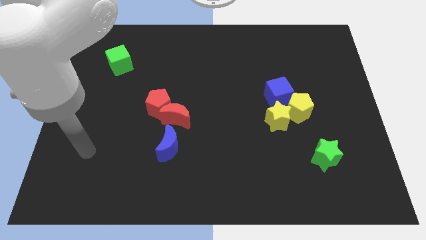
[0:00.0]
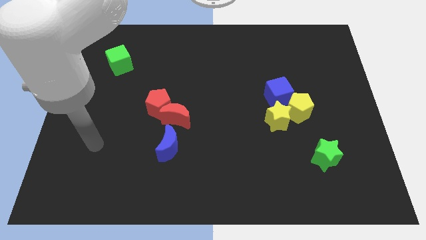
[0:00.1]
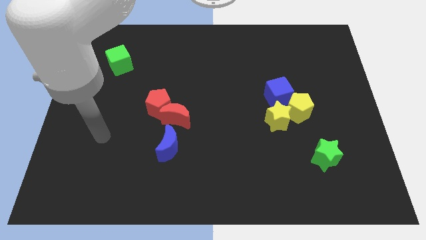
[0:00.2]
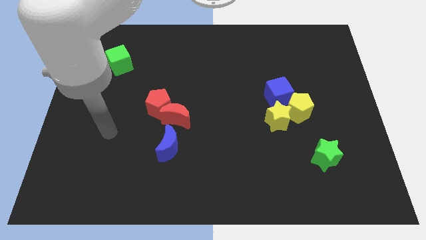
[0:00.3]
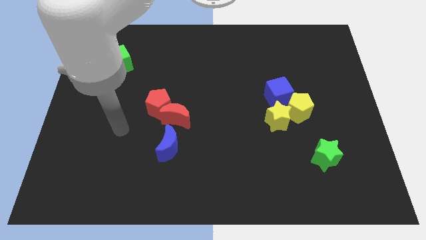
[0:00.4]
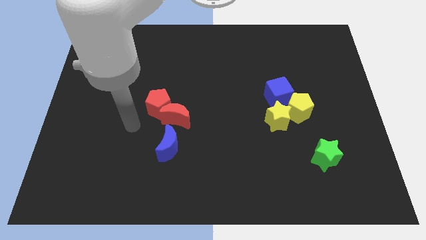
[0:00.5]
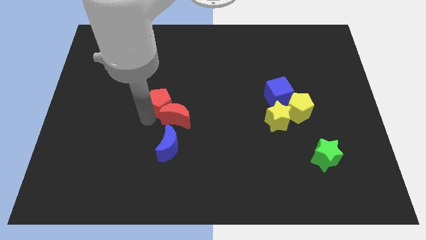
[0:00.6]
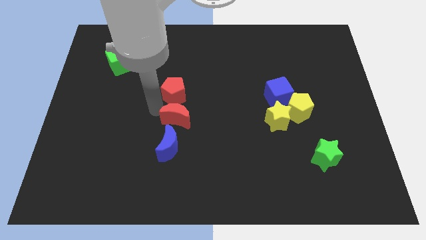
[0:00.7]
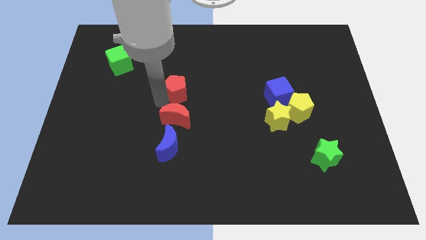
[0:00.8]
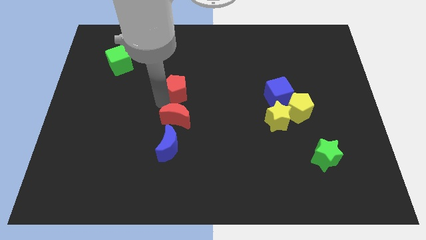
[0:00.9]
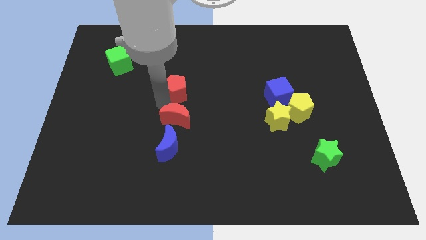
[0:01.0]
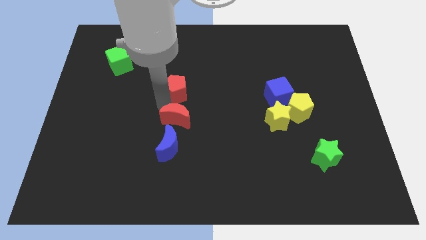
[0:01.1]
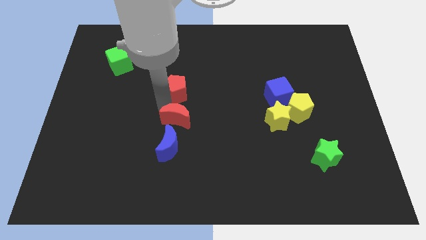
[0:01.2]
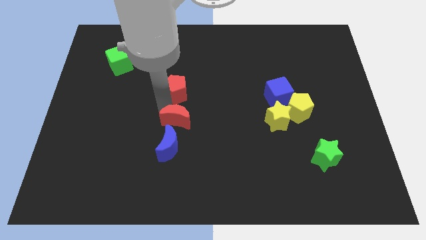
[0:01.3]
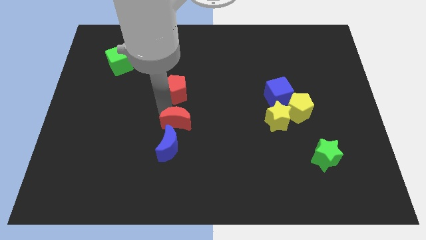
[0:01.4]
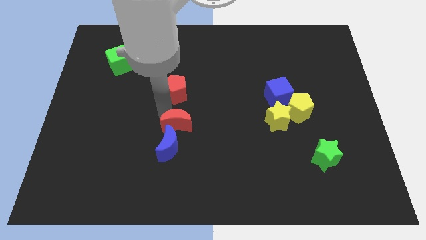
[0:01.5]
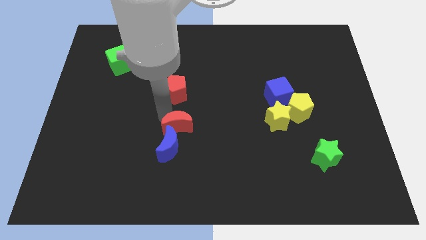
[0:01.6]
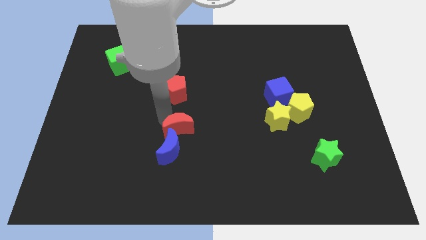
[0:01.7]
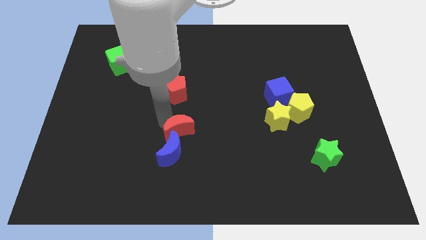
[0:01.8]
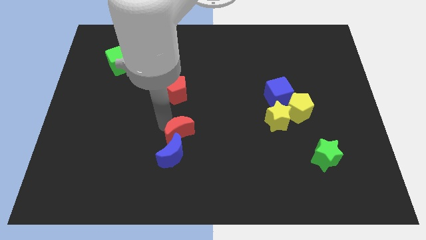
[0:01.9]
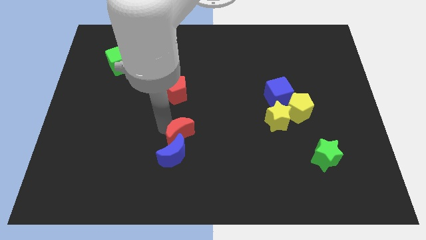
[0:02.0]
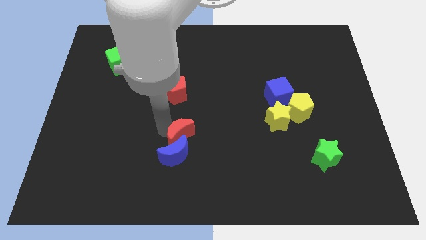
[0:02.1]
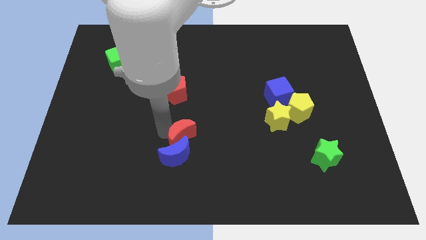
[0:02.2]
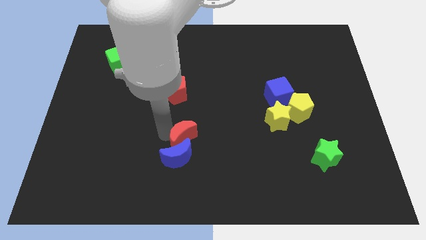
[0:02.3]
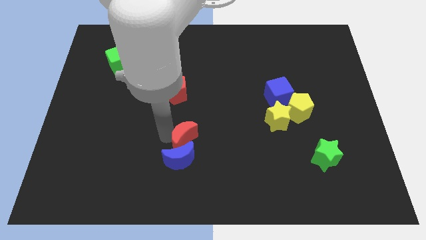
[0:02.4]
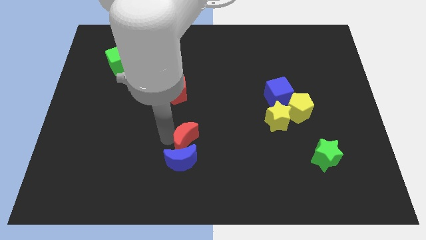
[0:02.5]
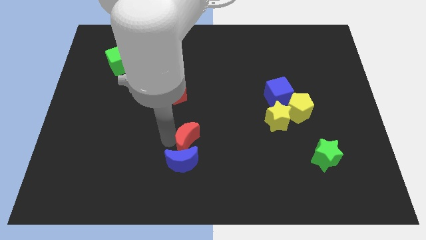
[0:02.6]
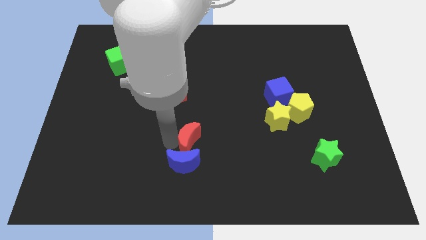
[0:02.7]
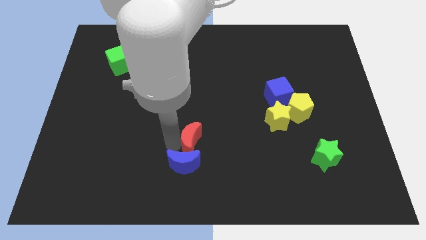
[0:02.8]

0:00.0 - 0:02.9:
push the red moon down and to the right diagonally a bit

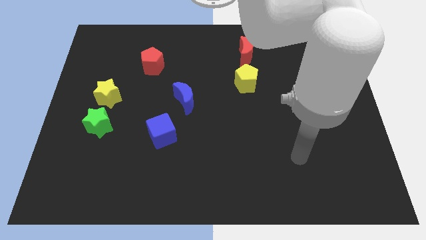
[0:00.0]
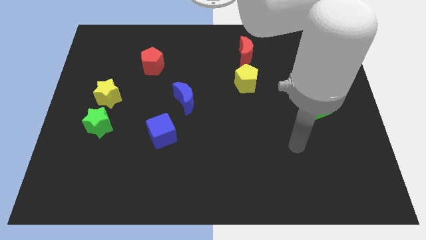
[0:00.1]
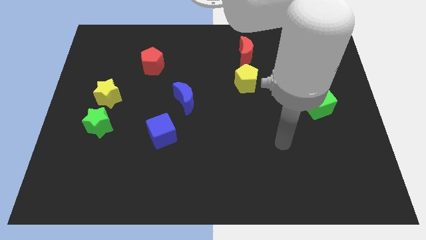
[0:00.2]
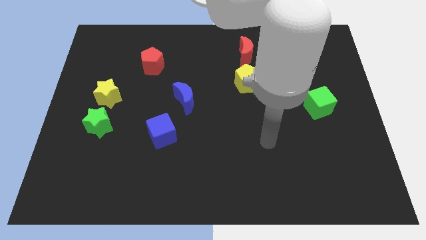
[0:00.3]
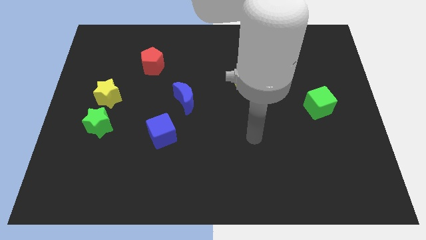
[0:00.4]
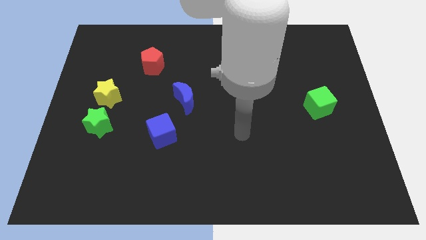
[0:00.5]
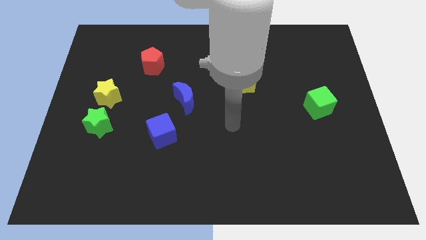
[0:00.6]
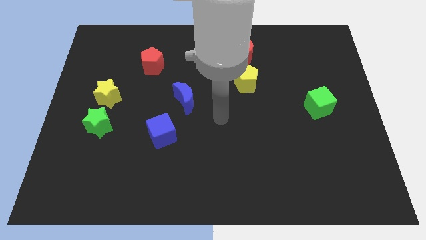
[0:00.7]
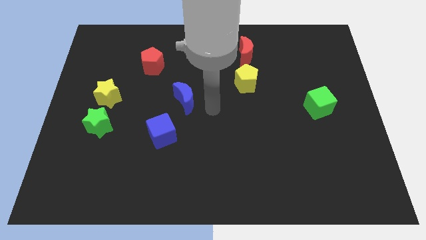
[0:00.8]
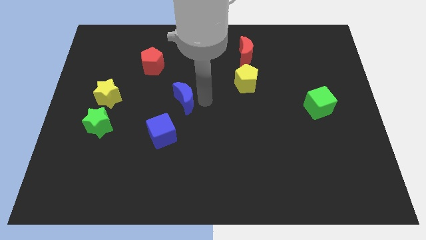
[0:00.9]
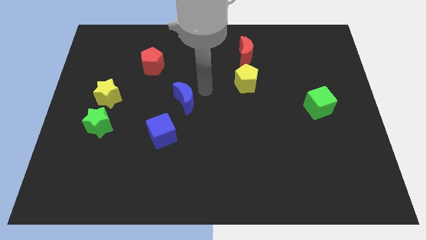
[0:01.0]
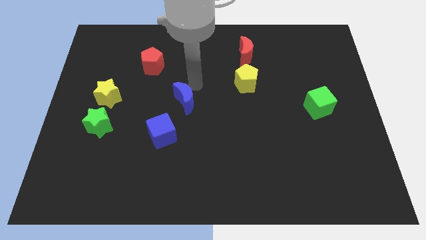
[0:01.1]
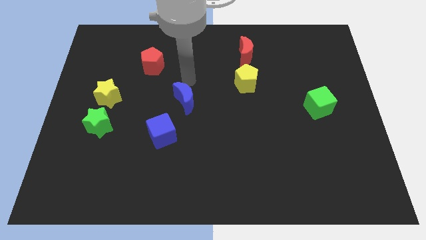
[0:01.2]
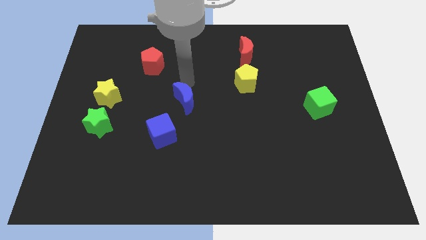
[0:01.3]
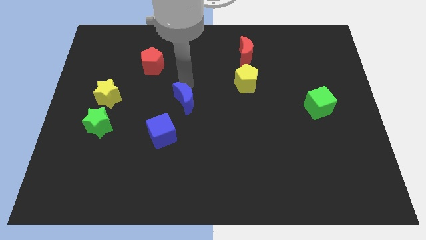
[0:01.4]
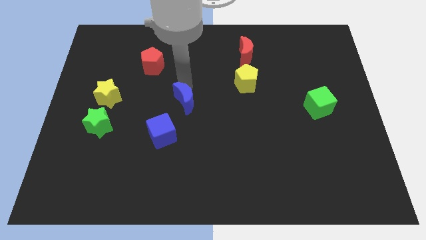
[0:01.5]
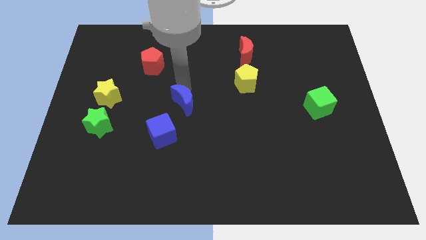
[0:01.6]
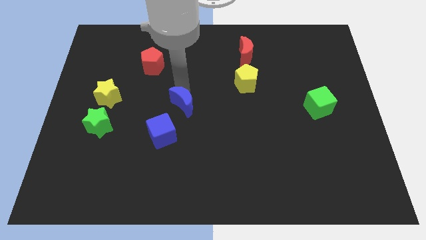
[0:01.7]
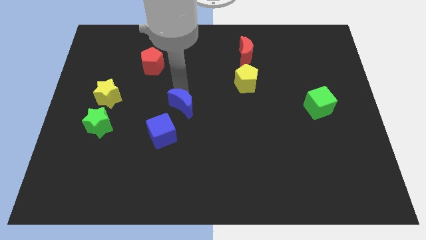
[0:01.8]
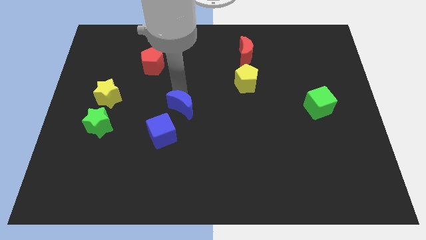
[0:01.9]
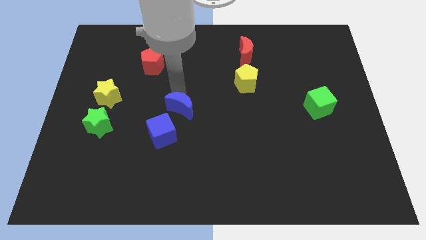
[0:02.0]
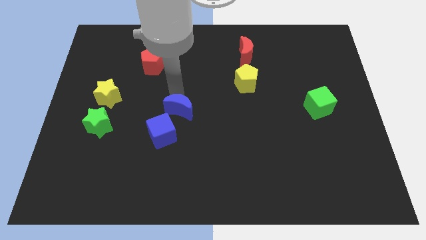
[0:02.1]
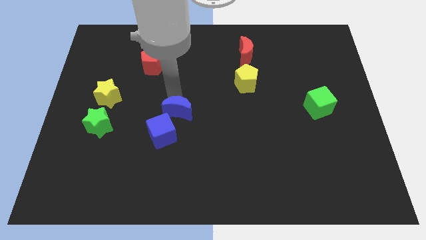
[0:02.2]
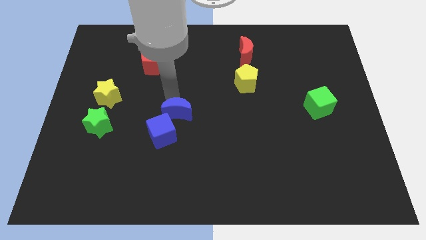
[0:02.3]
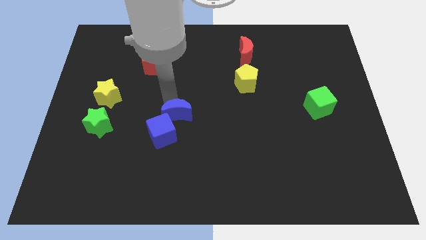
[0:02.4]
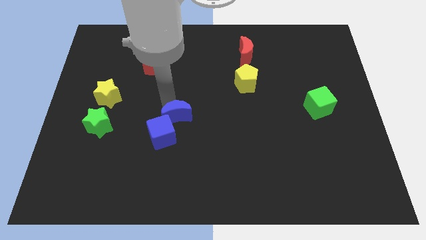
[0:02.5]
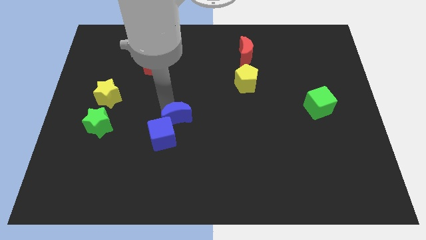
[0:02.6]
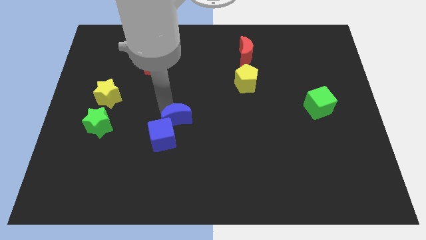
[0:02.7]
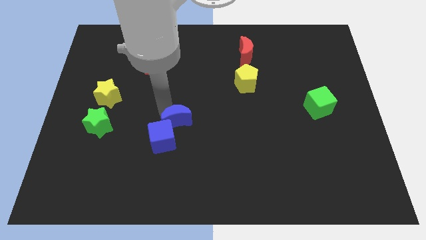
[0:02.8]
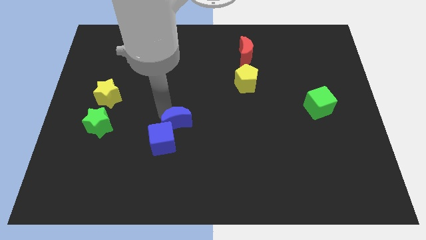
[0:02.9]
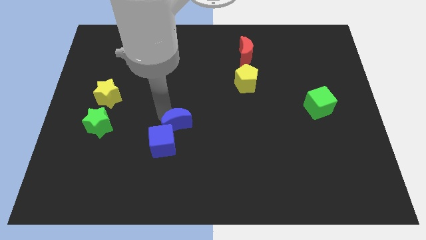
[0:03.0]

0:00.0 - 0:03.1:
move the blue moon downwards somewhat

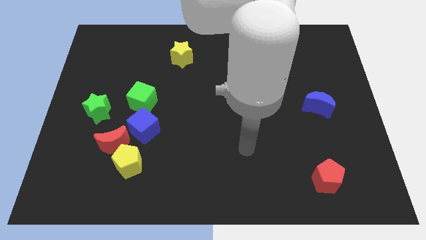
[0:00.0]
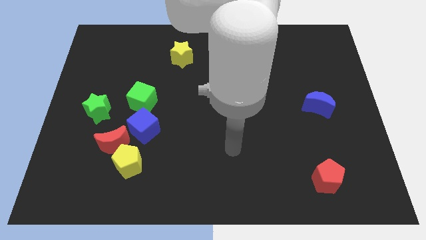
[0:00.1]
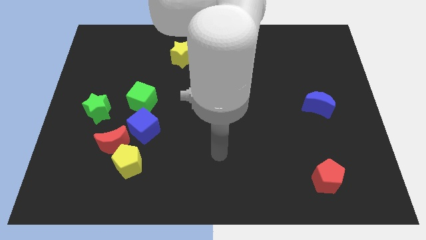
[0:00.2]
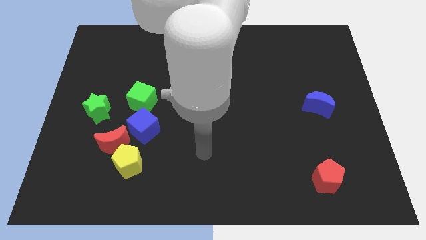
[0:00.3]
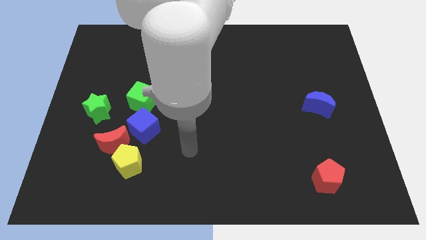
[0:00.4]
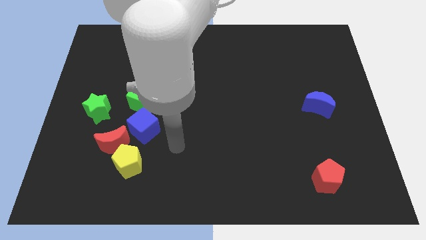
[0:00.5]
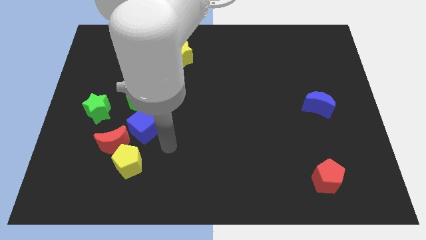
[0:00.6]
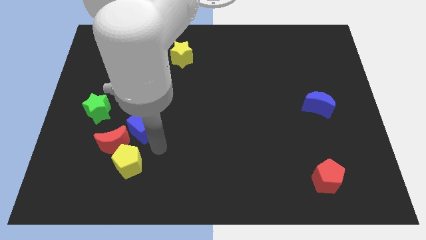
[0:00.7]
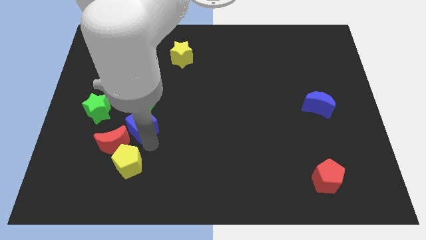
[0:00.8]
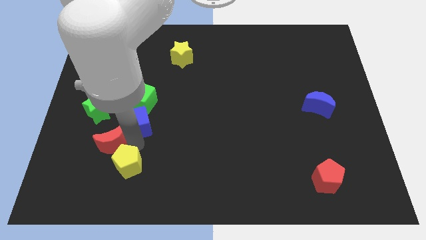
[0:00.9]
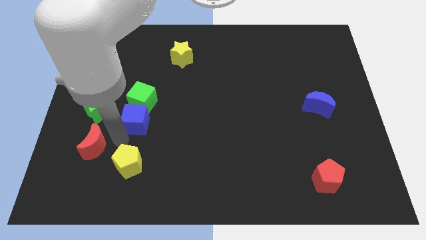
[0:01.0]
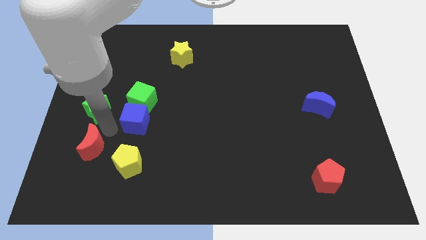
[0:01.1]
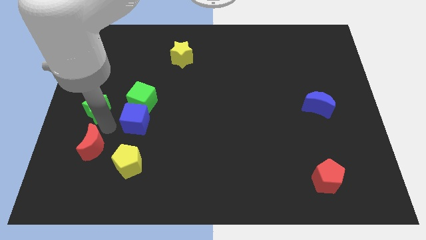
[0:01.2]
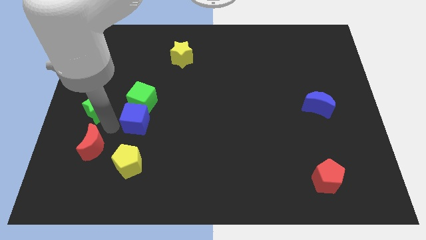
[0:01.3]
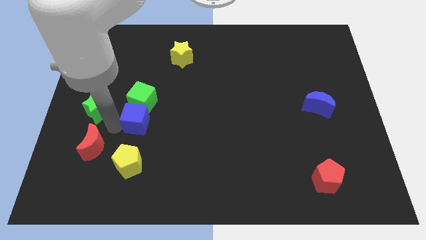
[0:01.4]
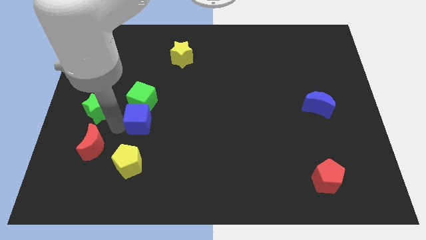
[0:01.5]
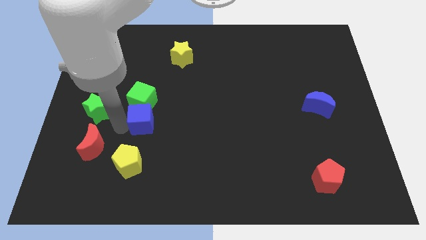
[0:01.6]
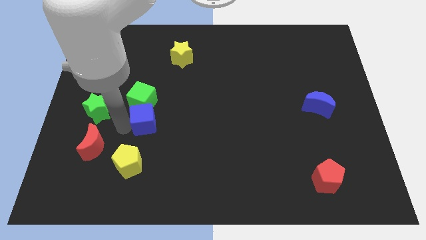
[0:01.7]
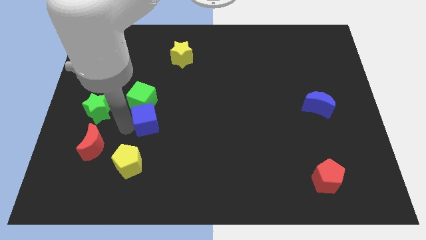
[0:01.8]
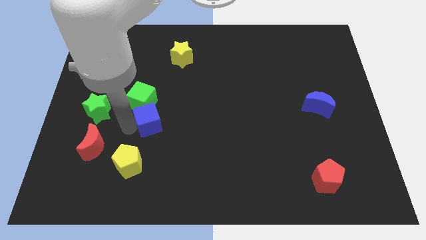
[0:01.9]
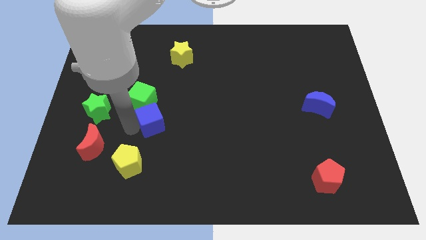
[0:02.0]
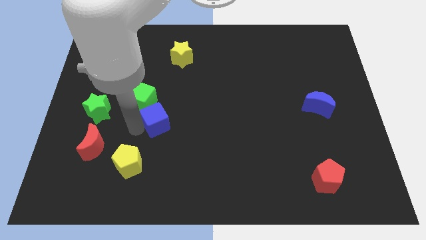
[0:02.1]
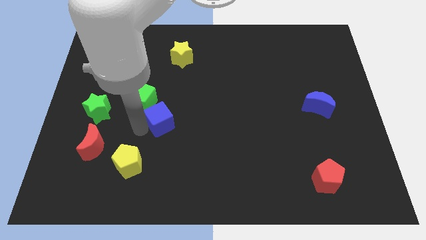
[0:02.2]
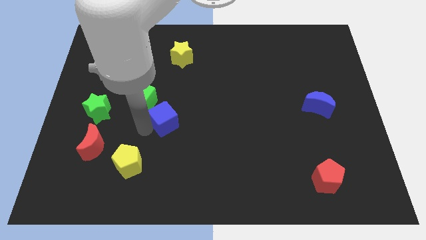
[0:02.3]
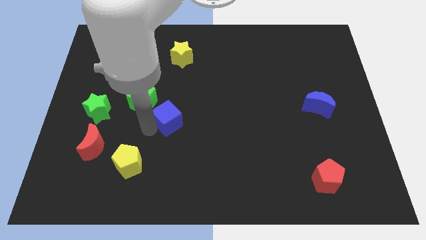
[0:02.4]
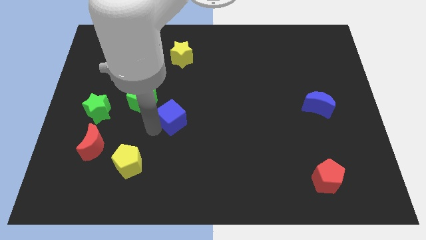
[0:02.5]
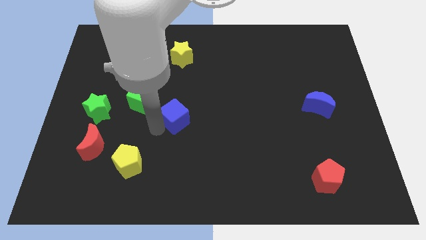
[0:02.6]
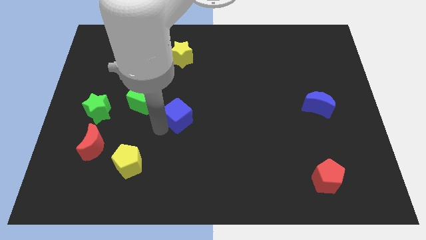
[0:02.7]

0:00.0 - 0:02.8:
push the blue cube upwards and right a little
